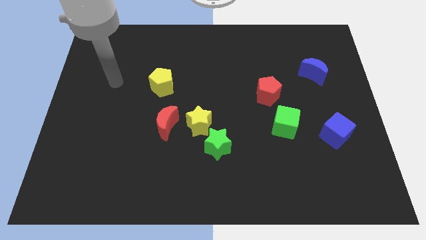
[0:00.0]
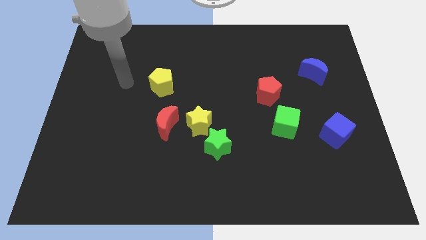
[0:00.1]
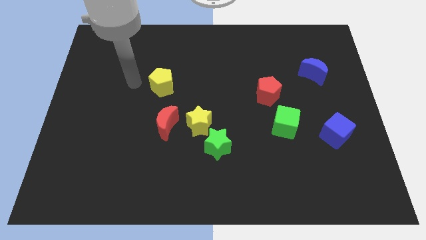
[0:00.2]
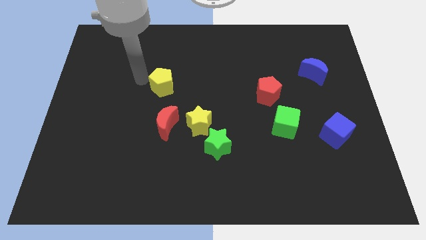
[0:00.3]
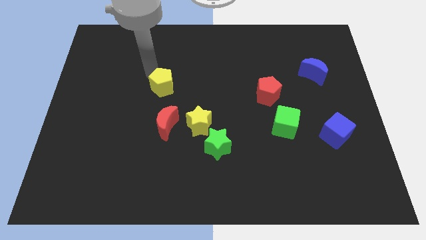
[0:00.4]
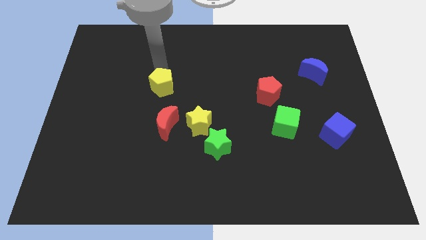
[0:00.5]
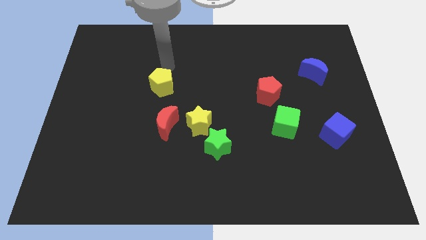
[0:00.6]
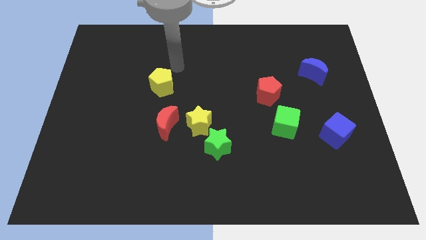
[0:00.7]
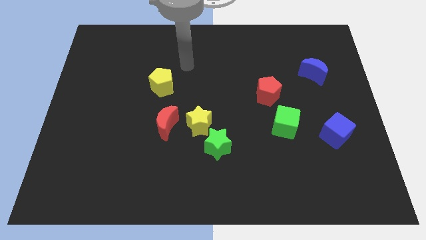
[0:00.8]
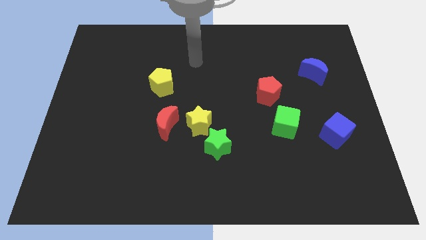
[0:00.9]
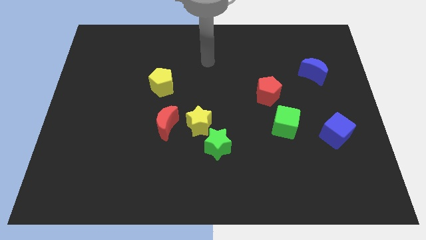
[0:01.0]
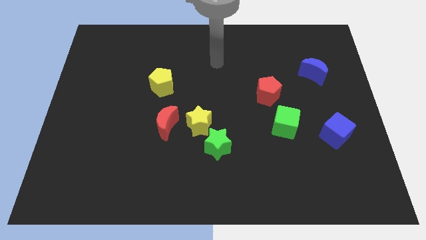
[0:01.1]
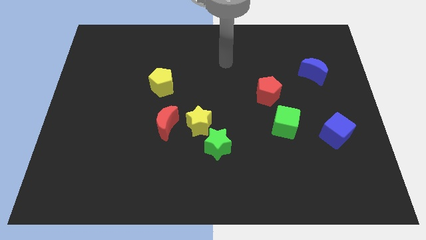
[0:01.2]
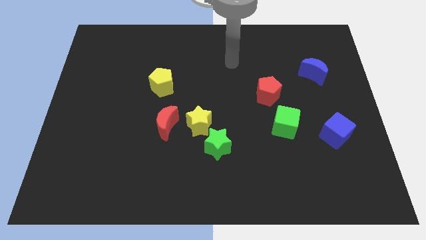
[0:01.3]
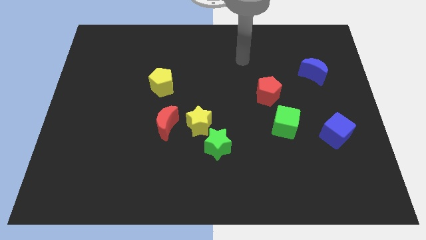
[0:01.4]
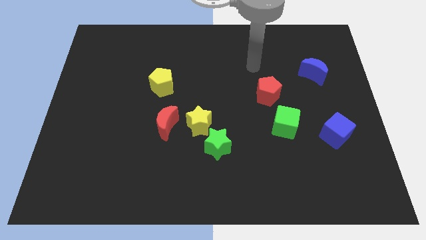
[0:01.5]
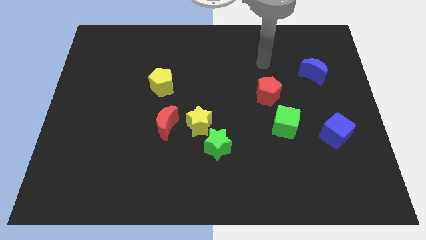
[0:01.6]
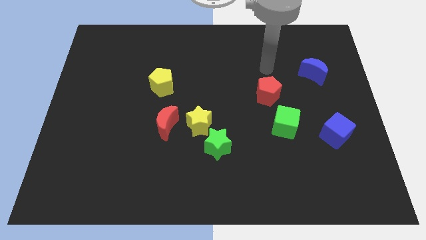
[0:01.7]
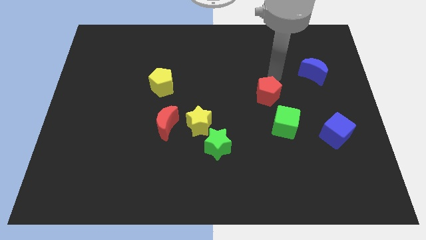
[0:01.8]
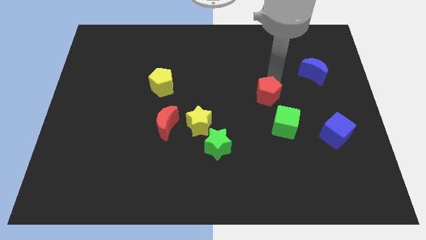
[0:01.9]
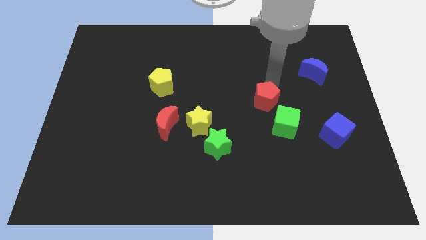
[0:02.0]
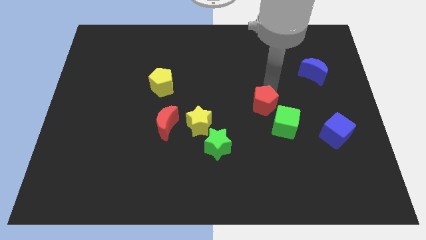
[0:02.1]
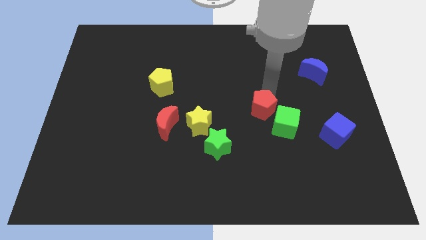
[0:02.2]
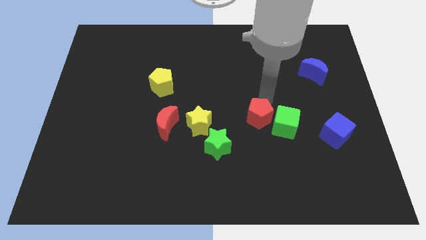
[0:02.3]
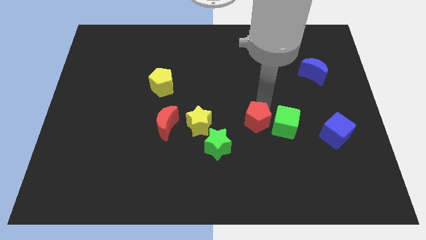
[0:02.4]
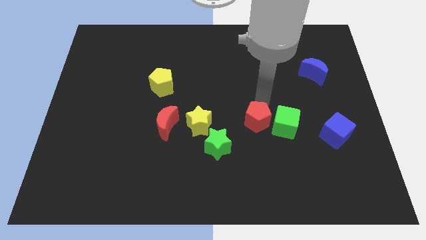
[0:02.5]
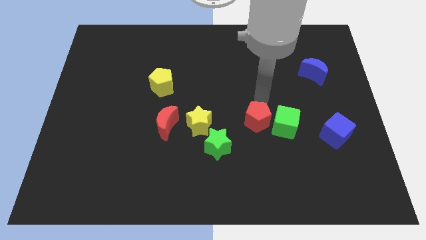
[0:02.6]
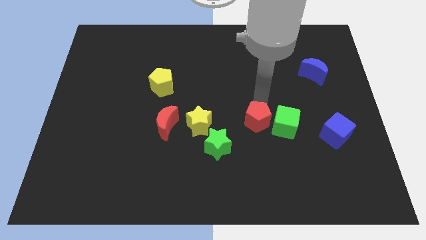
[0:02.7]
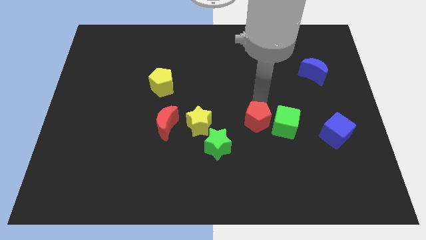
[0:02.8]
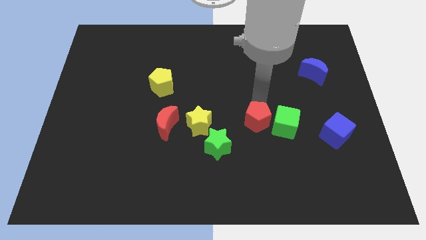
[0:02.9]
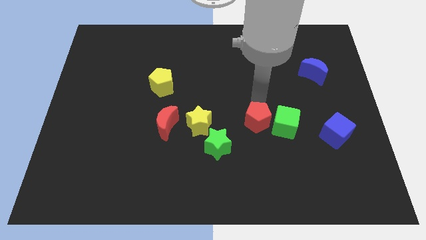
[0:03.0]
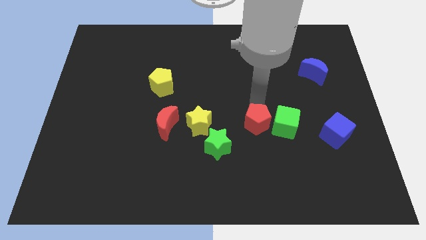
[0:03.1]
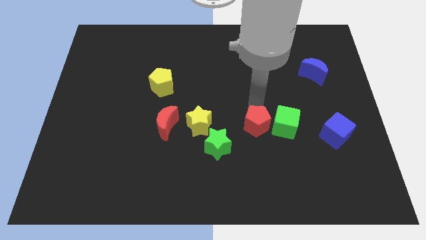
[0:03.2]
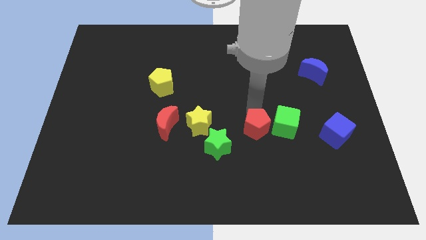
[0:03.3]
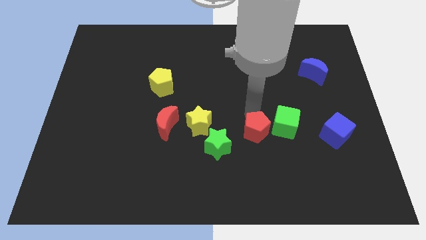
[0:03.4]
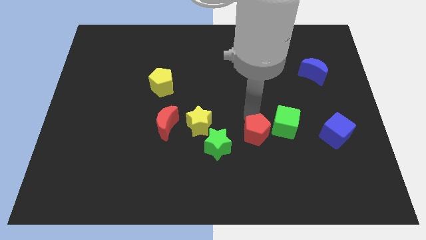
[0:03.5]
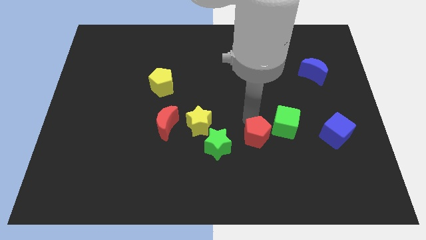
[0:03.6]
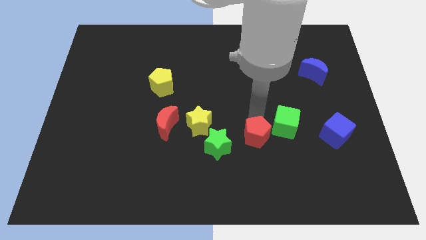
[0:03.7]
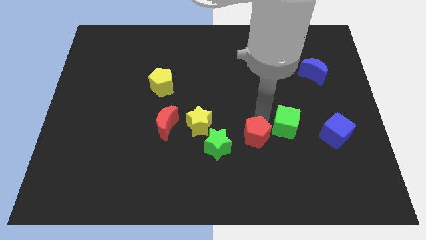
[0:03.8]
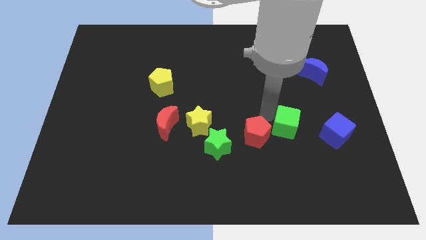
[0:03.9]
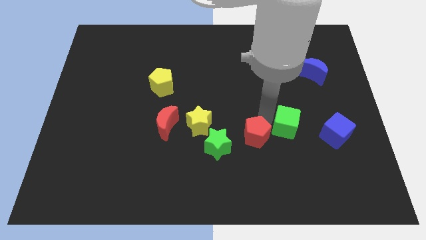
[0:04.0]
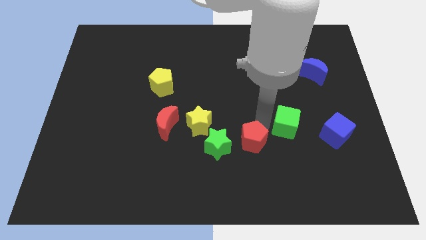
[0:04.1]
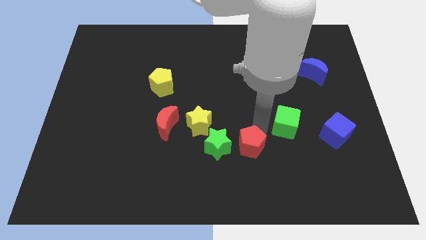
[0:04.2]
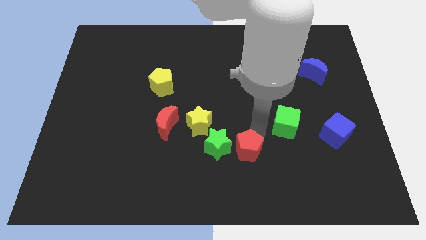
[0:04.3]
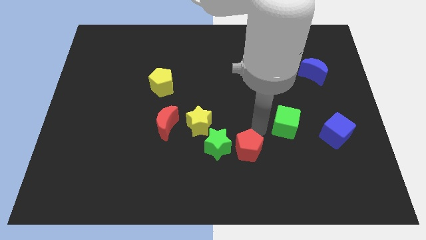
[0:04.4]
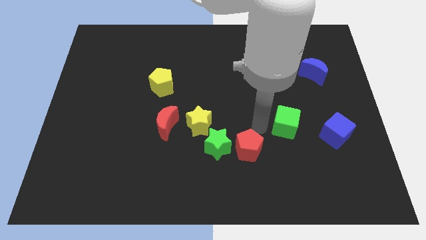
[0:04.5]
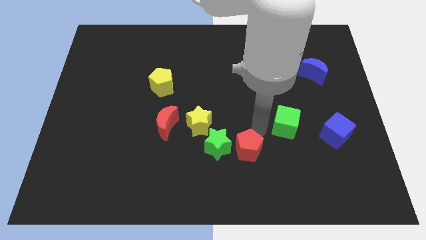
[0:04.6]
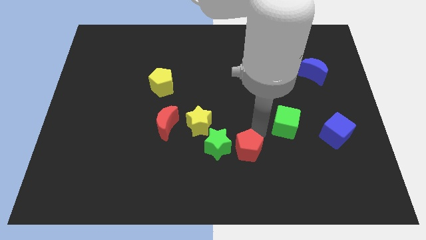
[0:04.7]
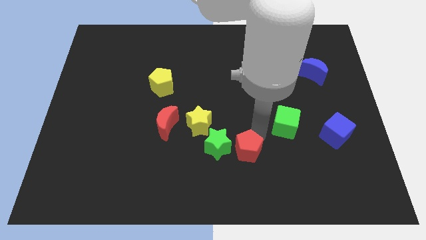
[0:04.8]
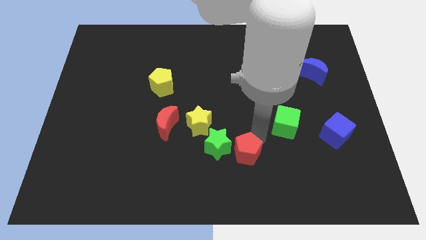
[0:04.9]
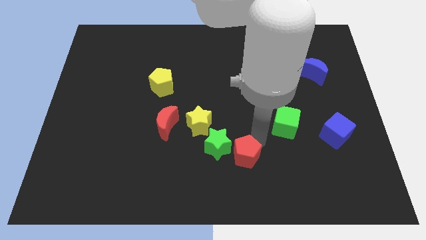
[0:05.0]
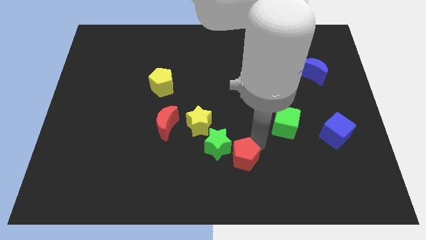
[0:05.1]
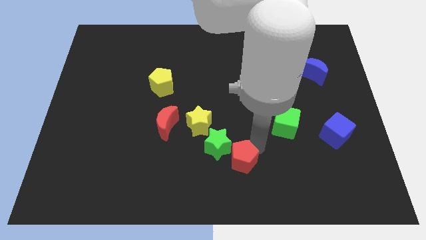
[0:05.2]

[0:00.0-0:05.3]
move the red pentagon to the bottom
